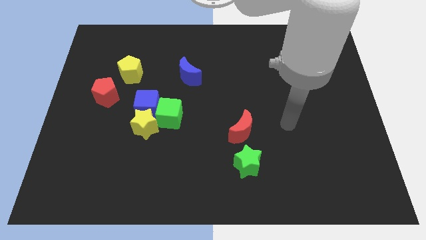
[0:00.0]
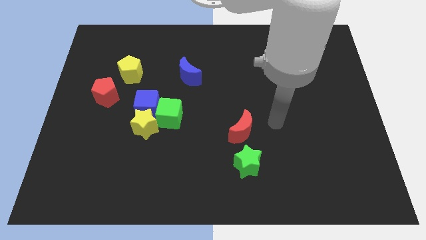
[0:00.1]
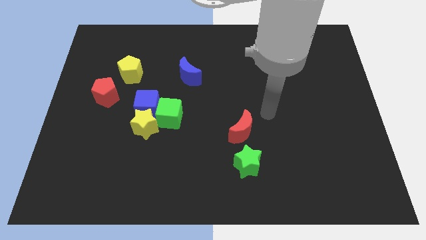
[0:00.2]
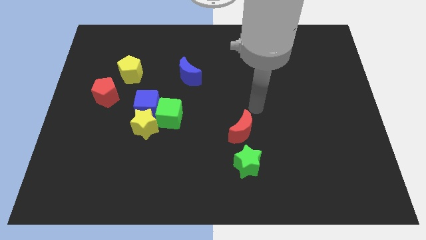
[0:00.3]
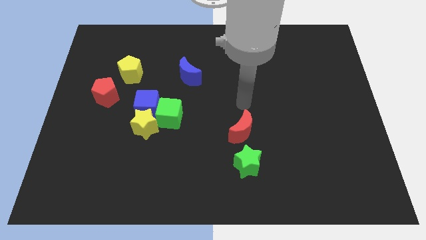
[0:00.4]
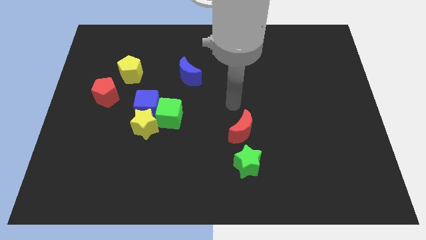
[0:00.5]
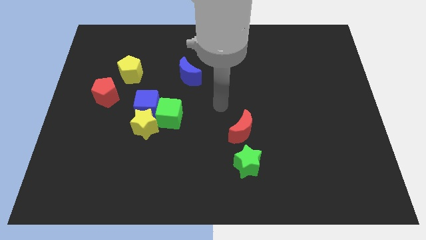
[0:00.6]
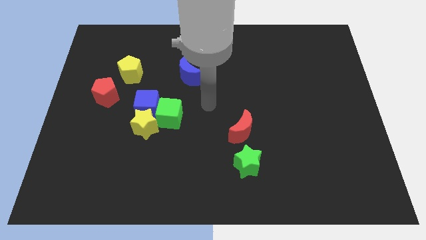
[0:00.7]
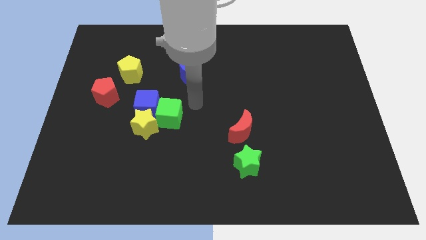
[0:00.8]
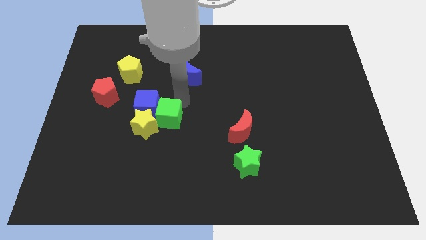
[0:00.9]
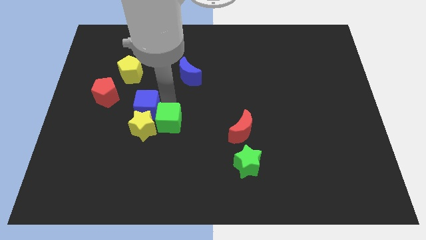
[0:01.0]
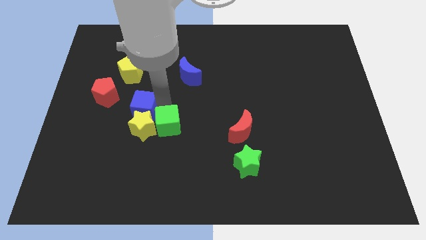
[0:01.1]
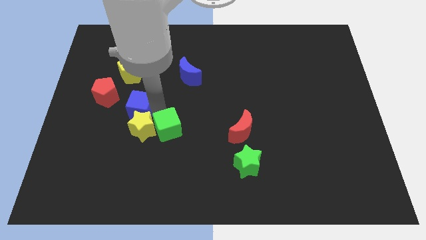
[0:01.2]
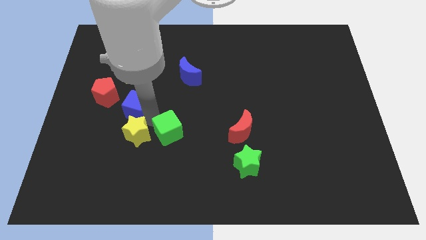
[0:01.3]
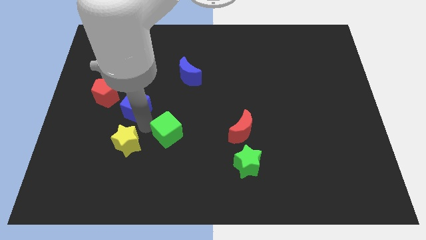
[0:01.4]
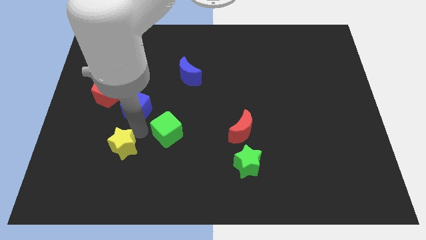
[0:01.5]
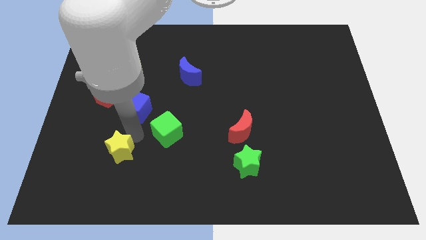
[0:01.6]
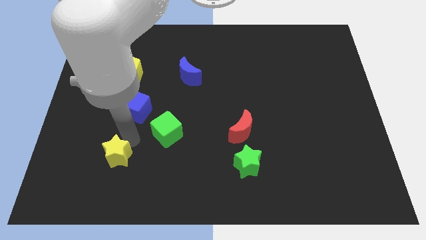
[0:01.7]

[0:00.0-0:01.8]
separate the yellow star from the blue cube and green cube

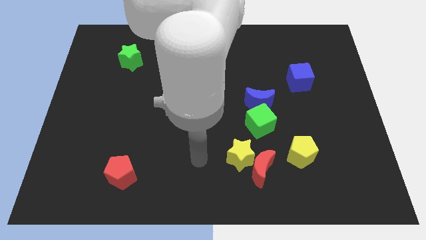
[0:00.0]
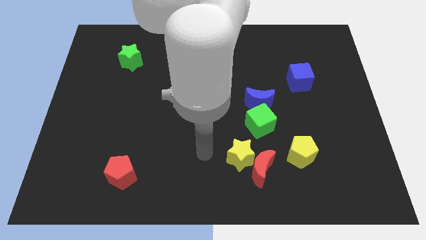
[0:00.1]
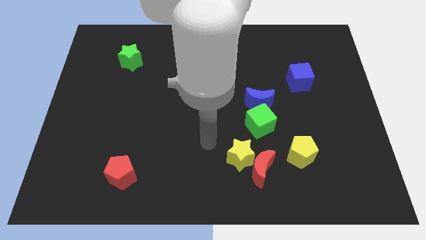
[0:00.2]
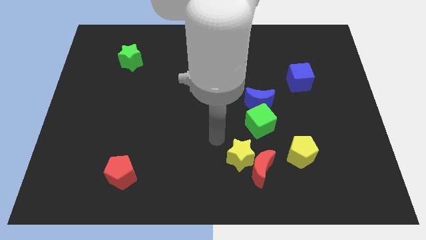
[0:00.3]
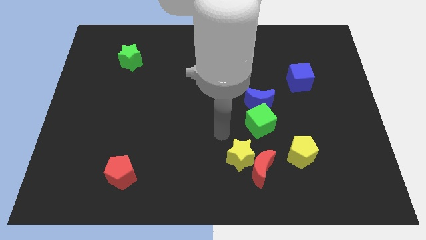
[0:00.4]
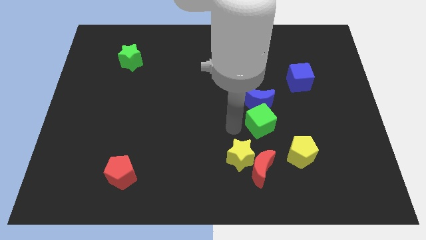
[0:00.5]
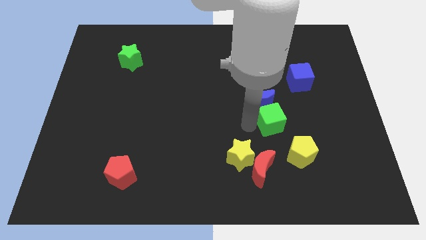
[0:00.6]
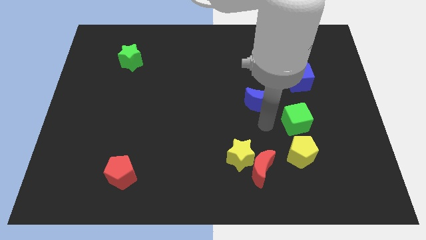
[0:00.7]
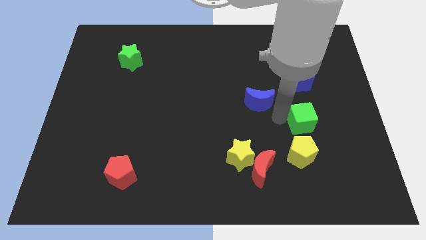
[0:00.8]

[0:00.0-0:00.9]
pull the blue moon apart from the green cube

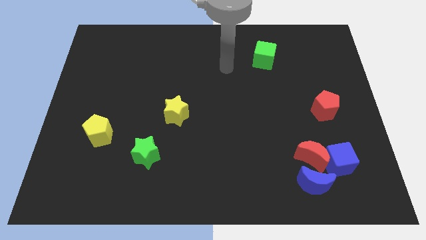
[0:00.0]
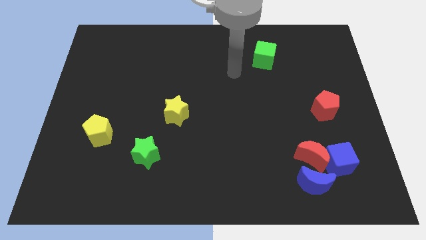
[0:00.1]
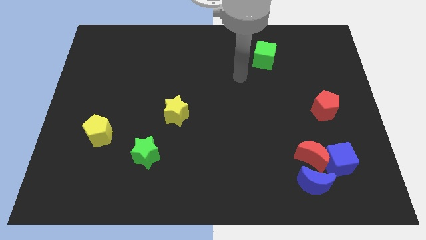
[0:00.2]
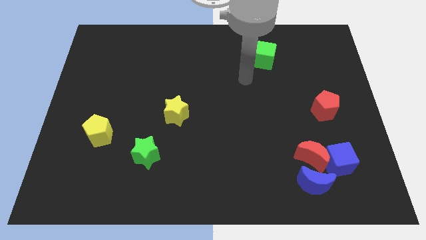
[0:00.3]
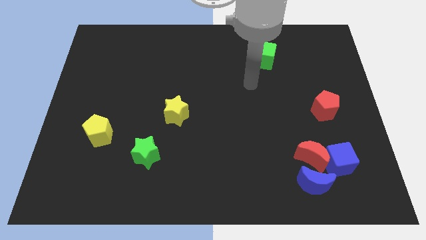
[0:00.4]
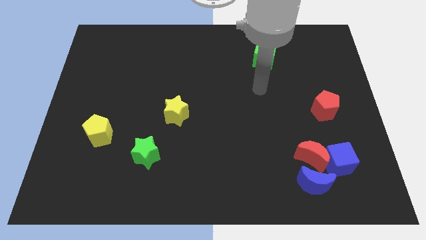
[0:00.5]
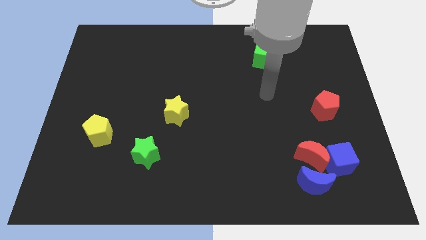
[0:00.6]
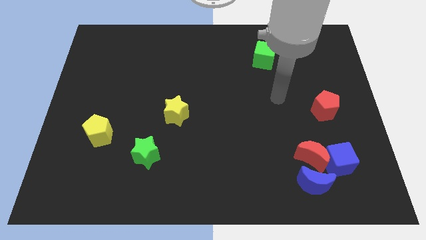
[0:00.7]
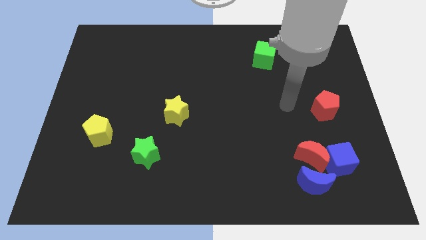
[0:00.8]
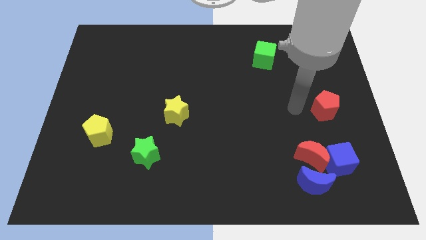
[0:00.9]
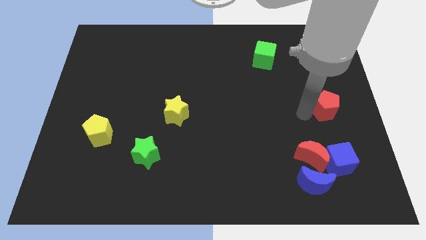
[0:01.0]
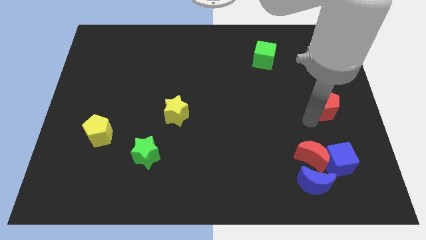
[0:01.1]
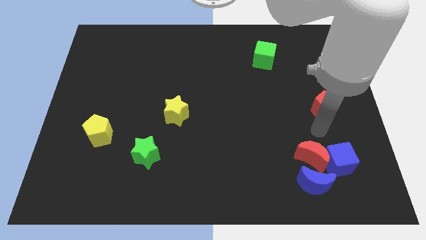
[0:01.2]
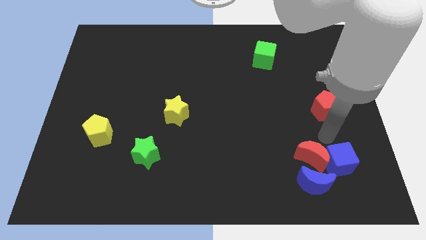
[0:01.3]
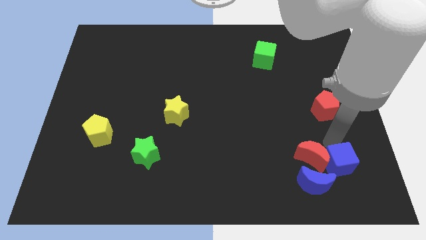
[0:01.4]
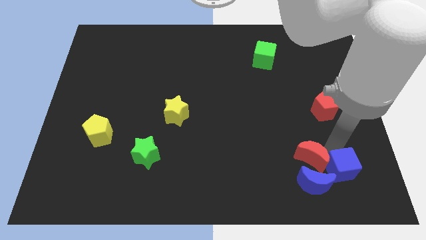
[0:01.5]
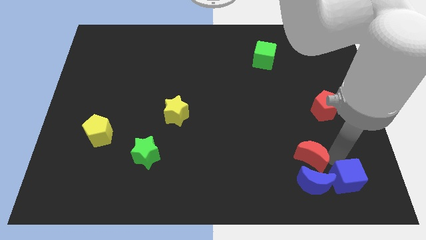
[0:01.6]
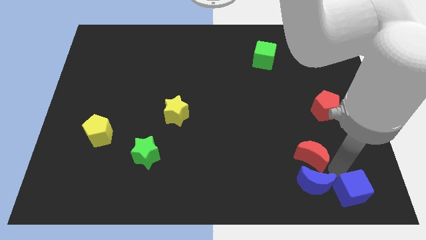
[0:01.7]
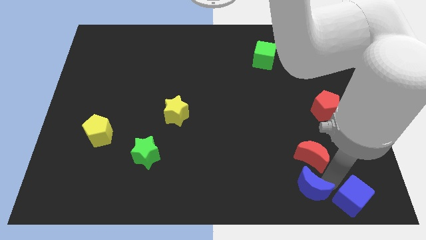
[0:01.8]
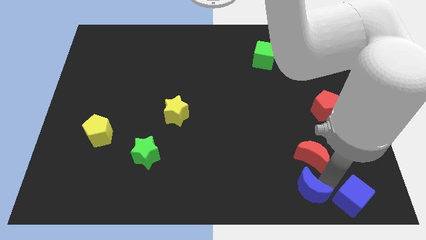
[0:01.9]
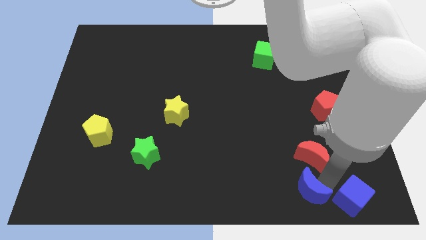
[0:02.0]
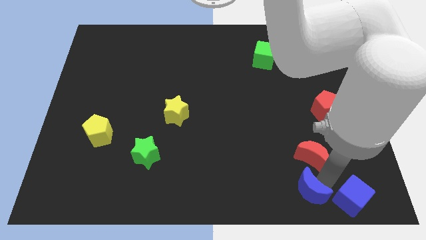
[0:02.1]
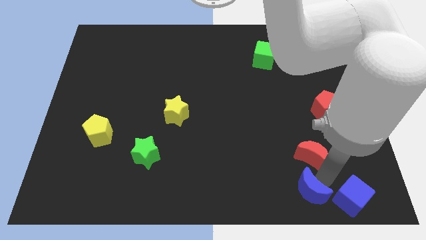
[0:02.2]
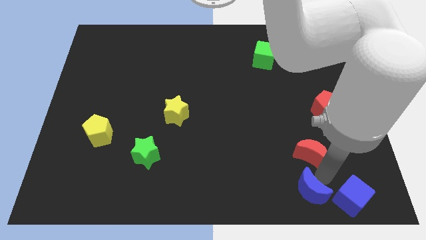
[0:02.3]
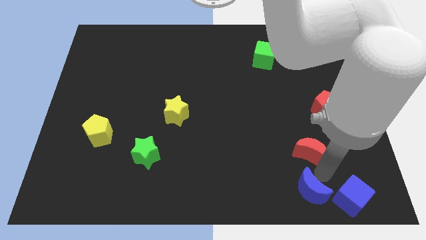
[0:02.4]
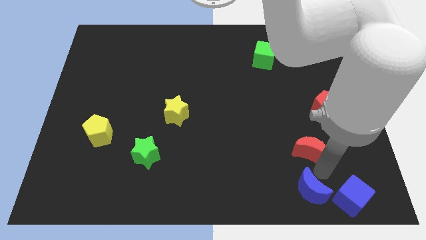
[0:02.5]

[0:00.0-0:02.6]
separate the red moon from the blue cube and blue moon

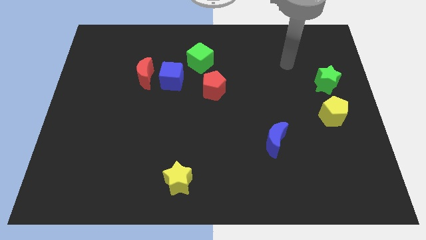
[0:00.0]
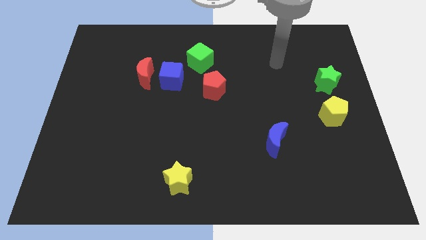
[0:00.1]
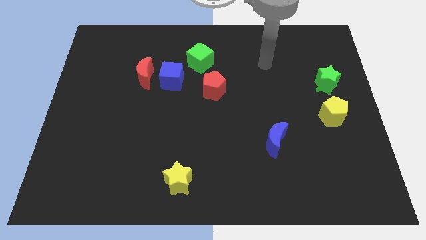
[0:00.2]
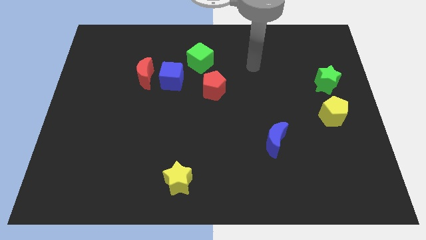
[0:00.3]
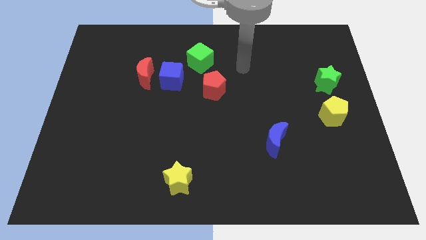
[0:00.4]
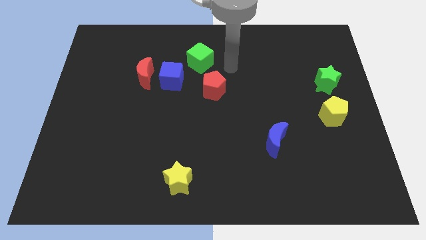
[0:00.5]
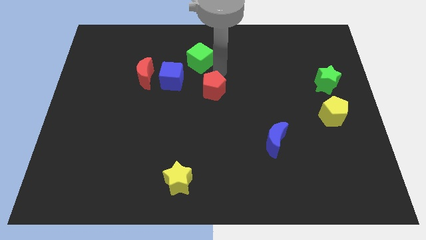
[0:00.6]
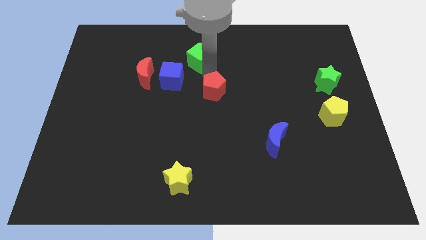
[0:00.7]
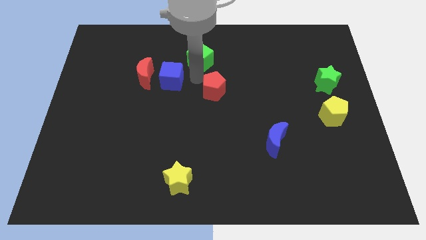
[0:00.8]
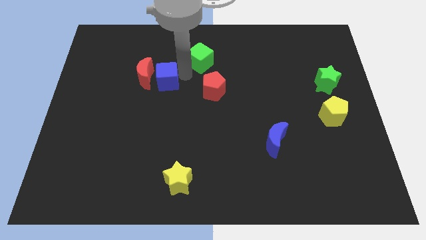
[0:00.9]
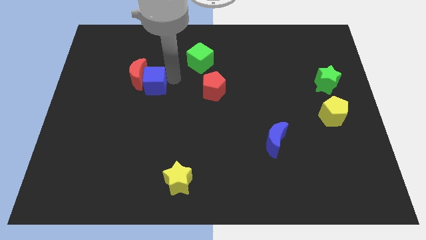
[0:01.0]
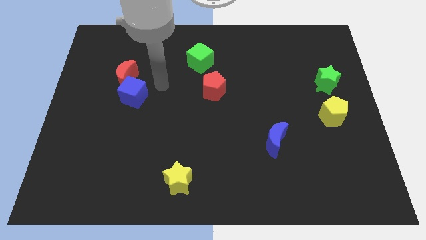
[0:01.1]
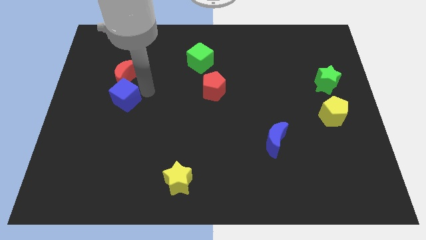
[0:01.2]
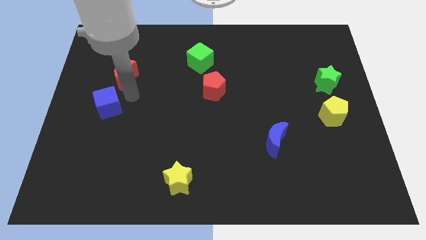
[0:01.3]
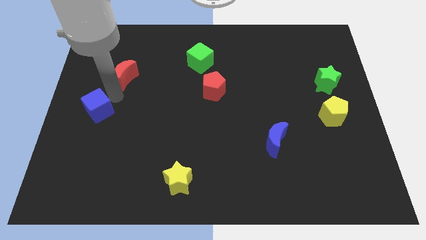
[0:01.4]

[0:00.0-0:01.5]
move the red moon away from the blue cube

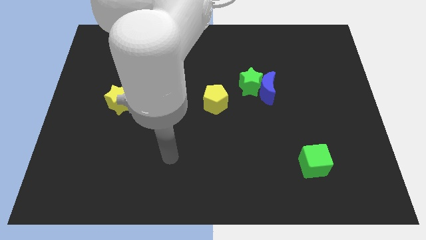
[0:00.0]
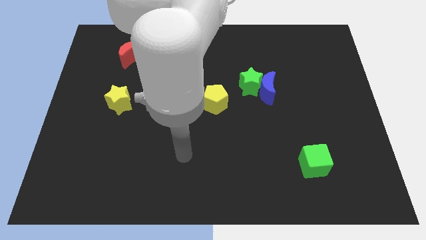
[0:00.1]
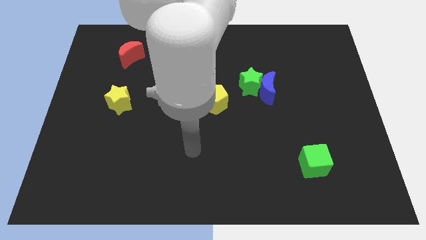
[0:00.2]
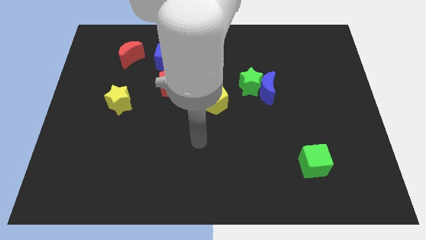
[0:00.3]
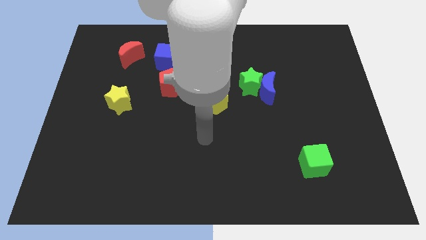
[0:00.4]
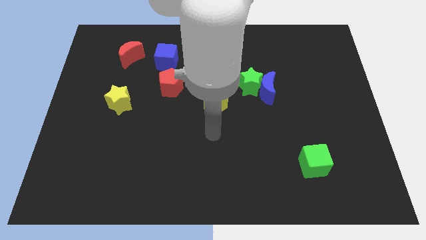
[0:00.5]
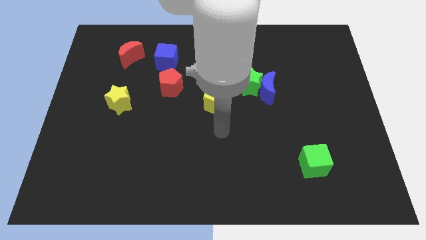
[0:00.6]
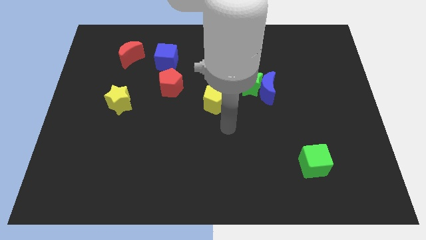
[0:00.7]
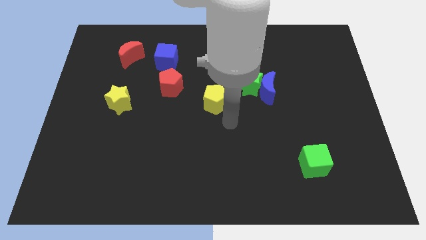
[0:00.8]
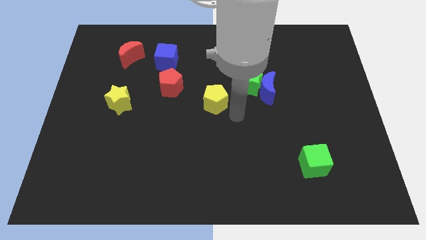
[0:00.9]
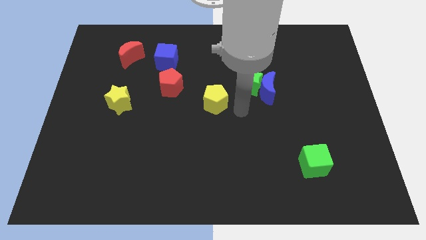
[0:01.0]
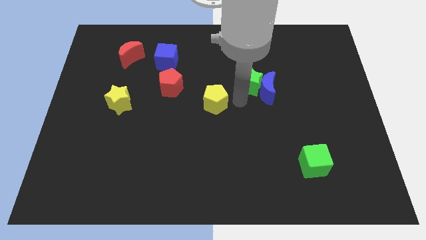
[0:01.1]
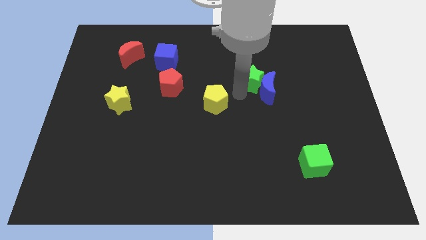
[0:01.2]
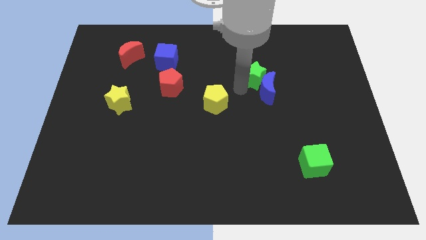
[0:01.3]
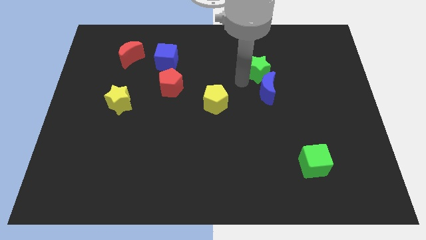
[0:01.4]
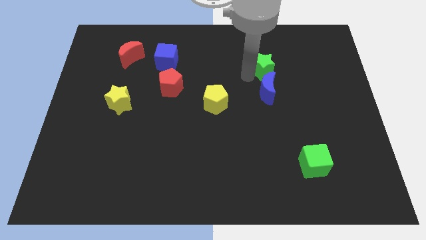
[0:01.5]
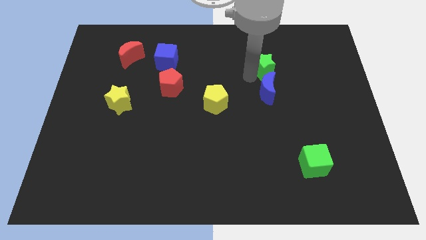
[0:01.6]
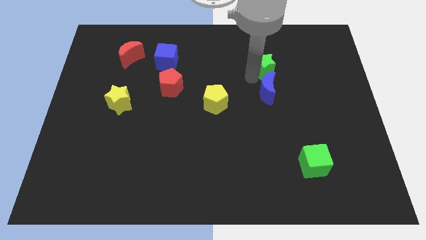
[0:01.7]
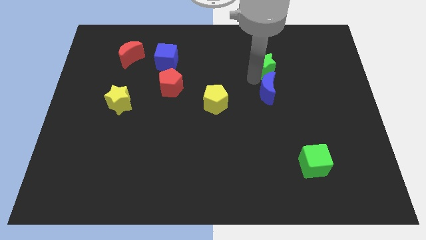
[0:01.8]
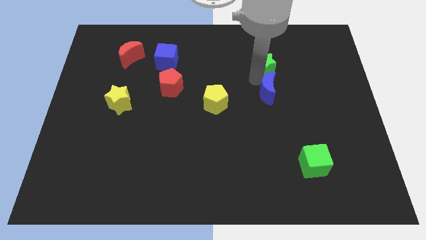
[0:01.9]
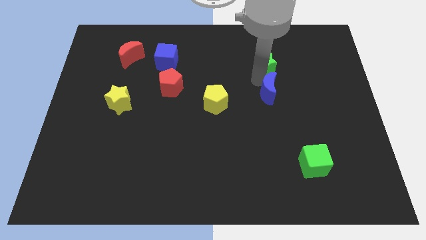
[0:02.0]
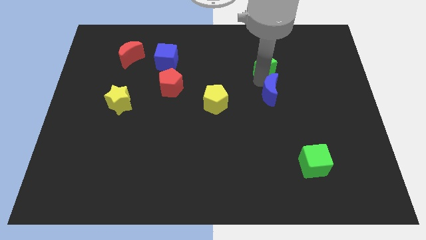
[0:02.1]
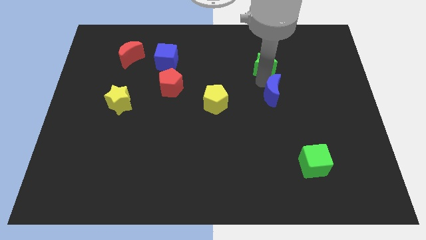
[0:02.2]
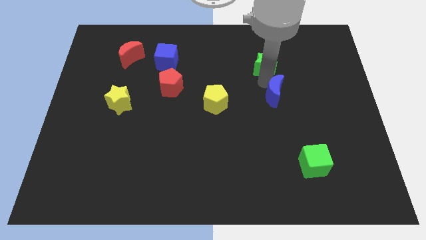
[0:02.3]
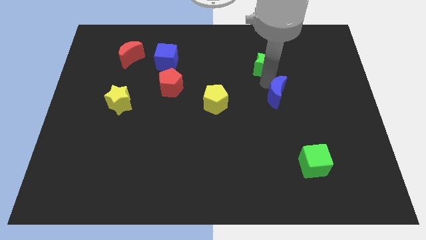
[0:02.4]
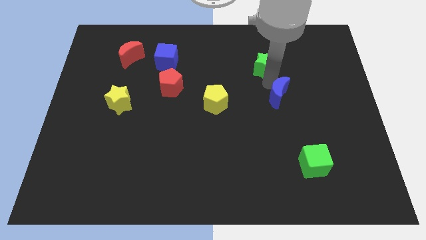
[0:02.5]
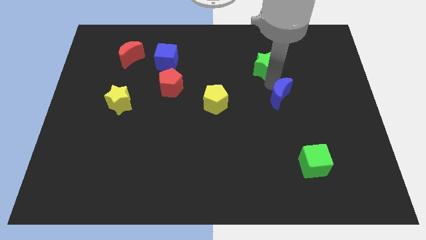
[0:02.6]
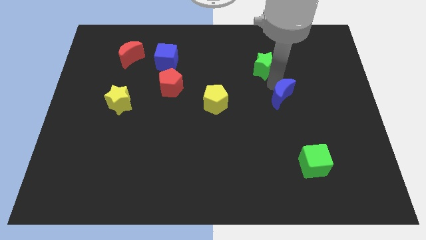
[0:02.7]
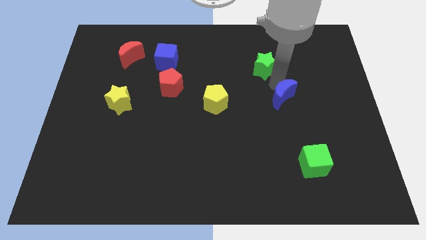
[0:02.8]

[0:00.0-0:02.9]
pull the blue moon apart from the green star
